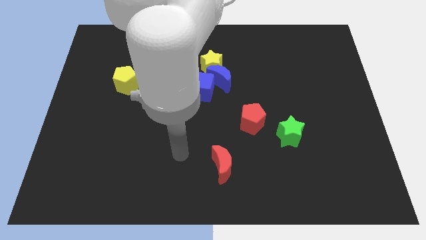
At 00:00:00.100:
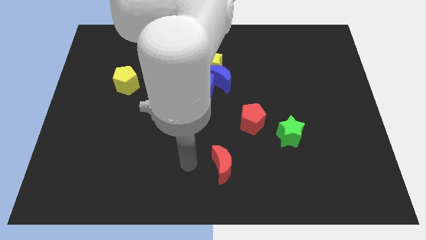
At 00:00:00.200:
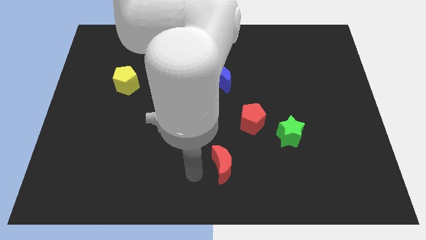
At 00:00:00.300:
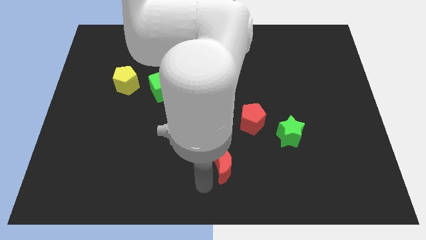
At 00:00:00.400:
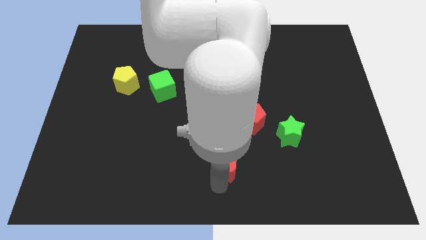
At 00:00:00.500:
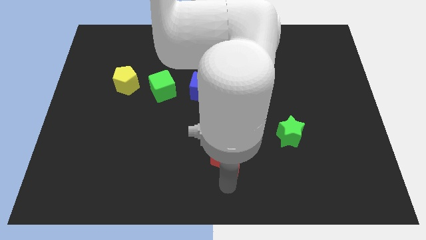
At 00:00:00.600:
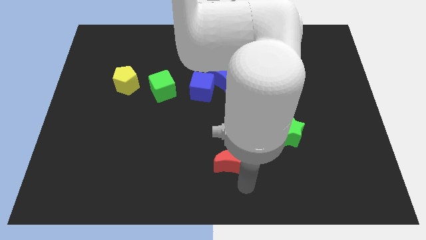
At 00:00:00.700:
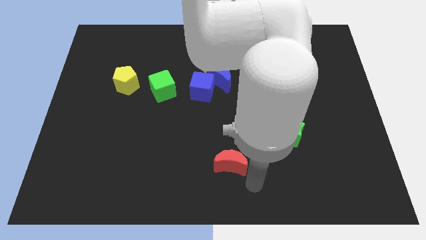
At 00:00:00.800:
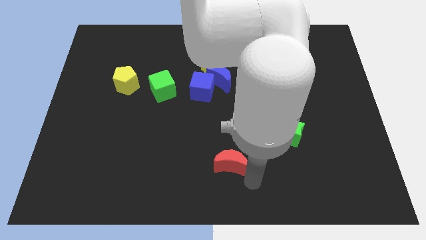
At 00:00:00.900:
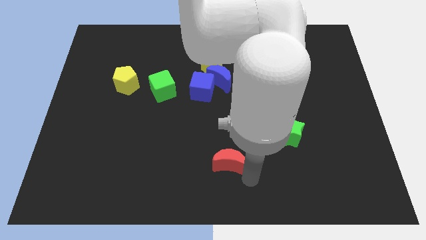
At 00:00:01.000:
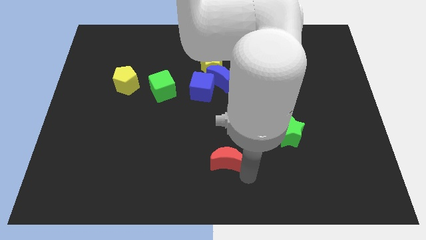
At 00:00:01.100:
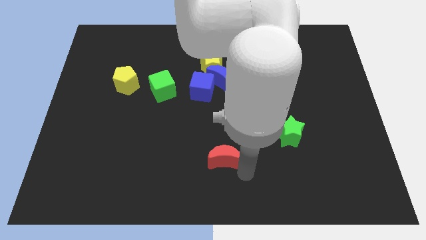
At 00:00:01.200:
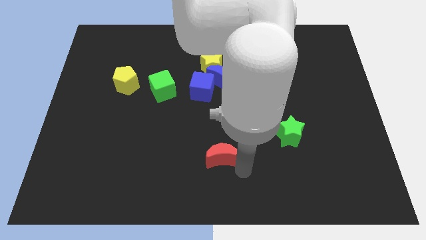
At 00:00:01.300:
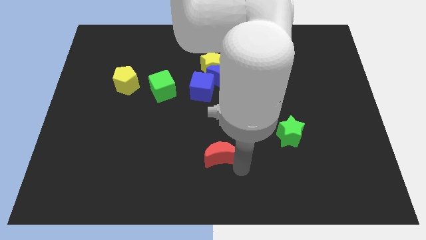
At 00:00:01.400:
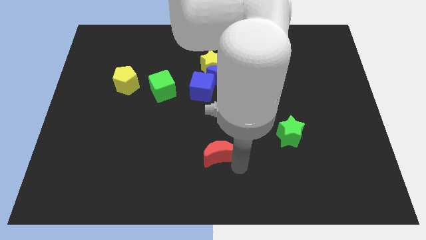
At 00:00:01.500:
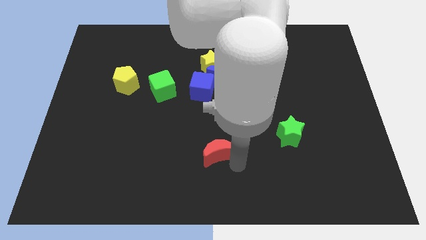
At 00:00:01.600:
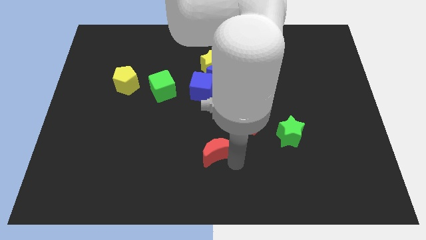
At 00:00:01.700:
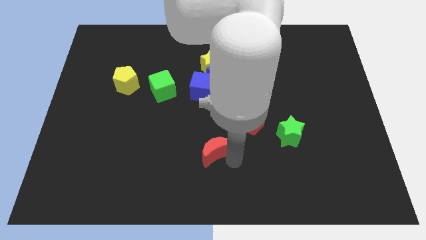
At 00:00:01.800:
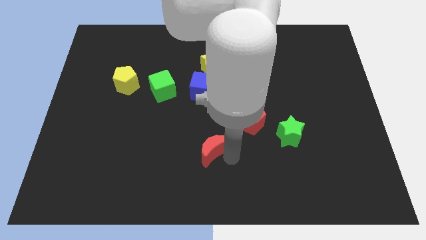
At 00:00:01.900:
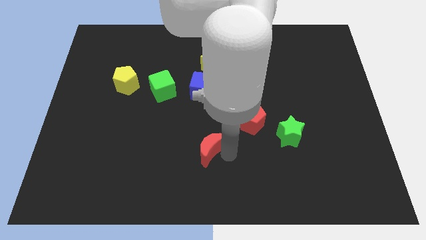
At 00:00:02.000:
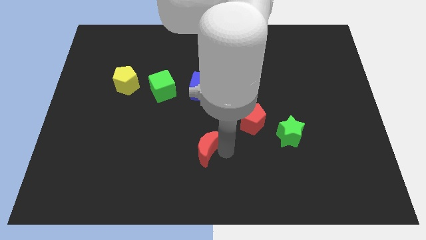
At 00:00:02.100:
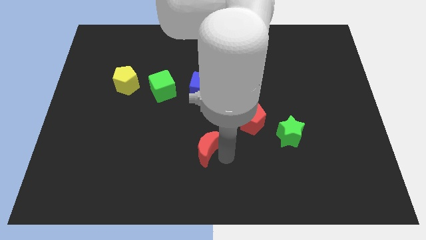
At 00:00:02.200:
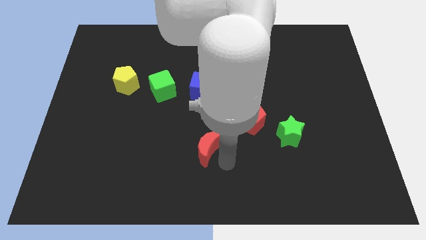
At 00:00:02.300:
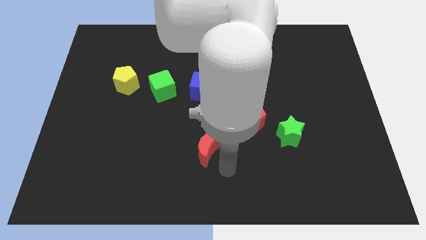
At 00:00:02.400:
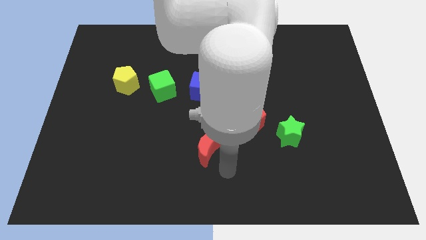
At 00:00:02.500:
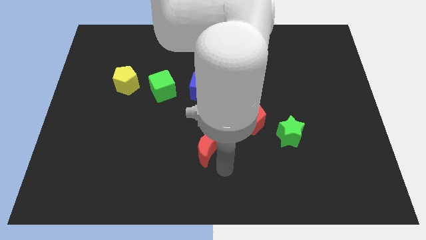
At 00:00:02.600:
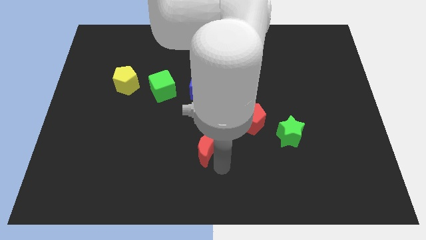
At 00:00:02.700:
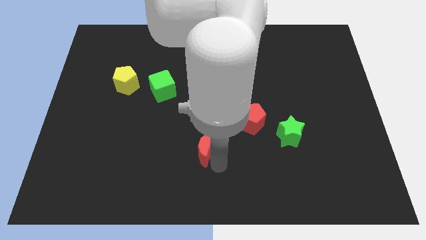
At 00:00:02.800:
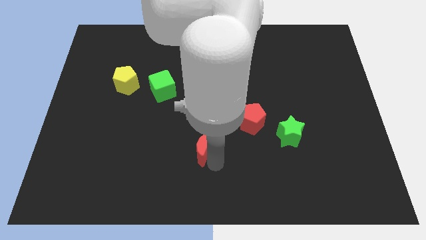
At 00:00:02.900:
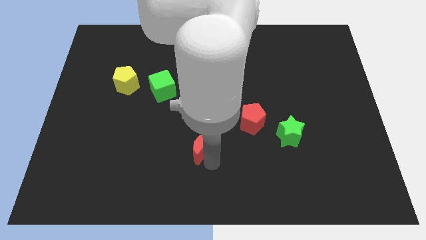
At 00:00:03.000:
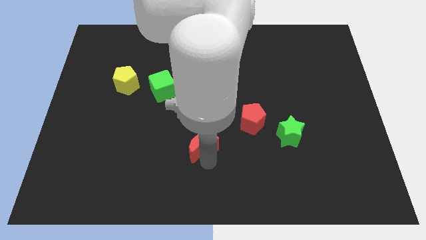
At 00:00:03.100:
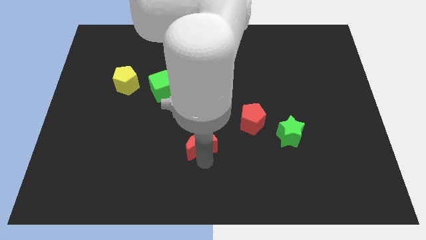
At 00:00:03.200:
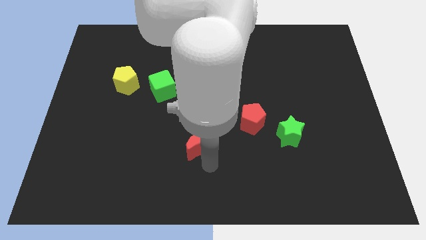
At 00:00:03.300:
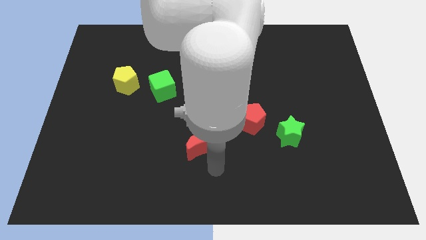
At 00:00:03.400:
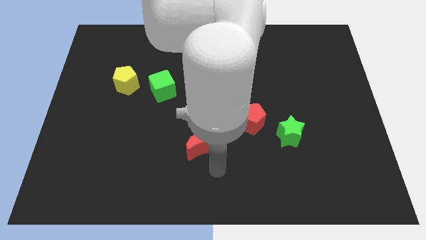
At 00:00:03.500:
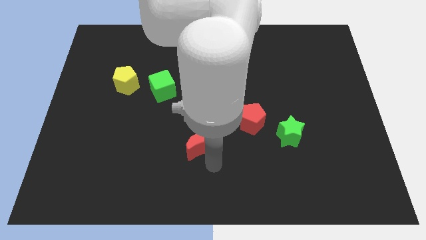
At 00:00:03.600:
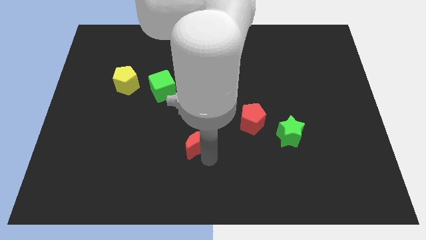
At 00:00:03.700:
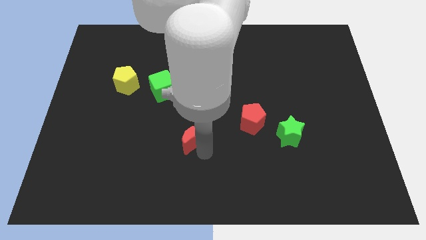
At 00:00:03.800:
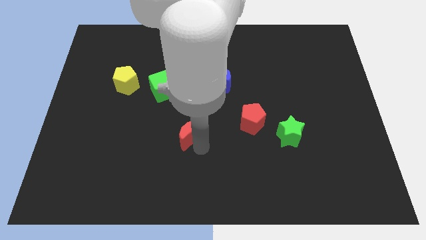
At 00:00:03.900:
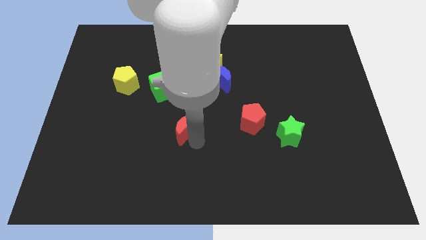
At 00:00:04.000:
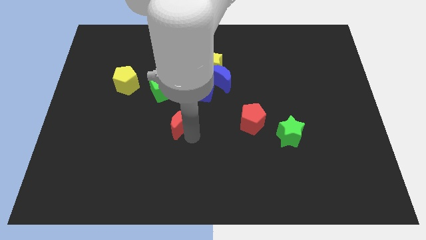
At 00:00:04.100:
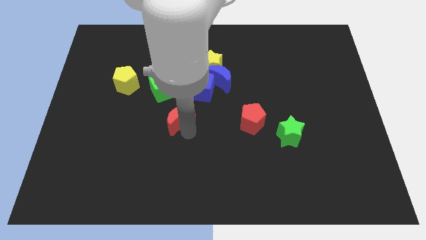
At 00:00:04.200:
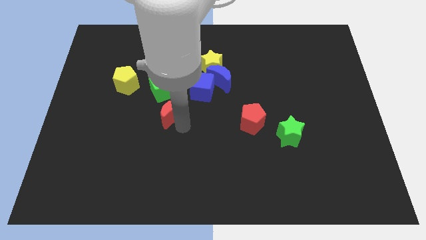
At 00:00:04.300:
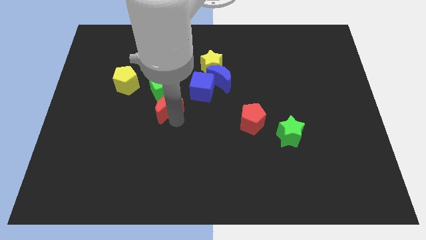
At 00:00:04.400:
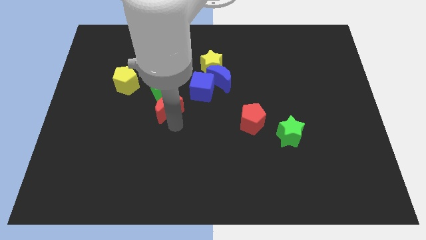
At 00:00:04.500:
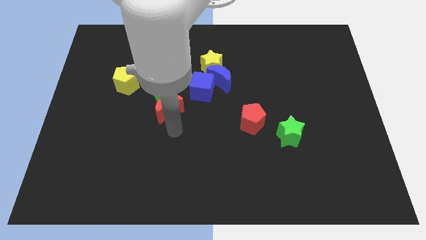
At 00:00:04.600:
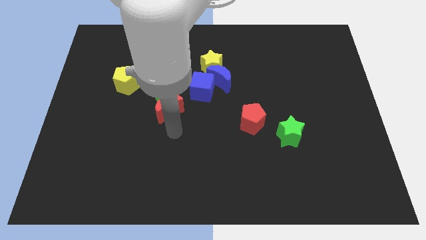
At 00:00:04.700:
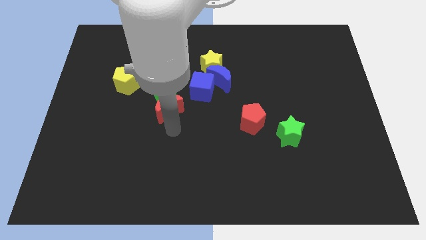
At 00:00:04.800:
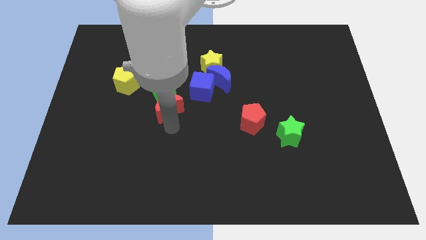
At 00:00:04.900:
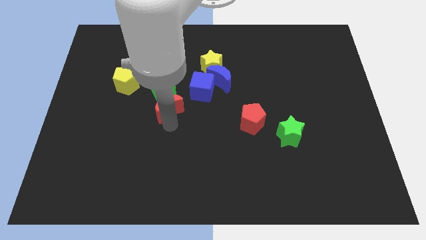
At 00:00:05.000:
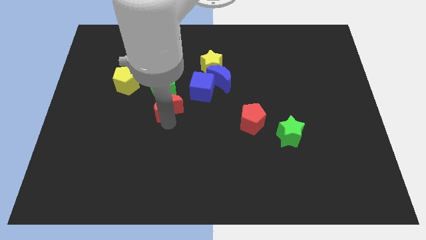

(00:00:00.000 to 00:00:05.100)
move the red moon next to the green cube

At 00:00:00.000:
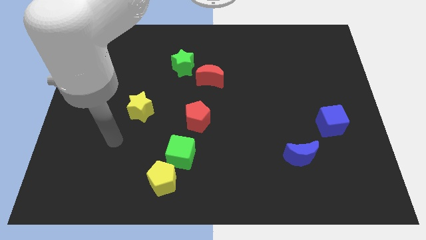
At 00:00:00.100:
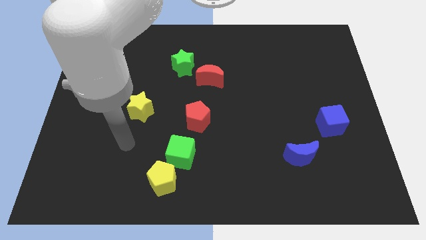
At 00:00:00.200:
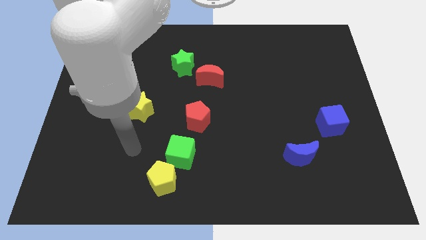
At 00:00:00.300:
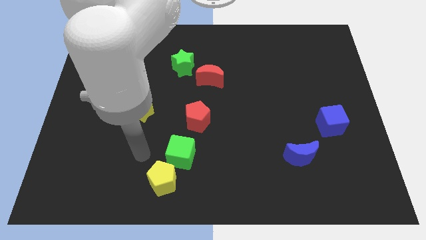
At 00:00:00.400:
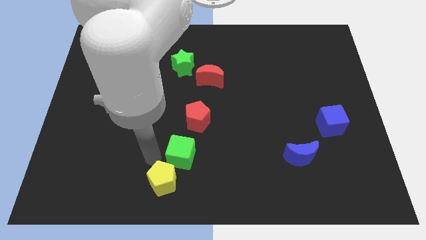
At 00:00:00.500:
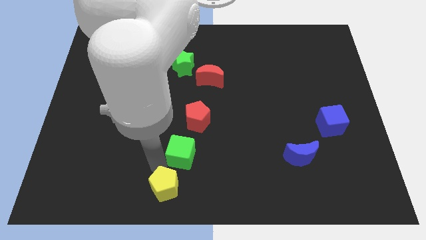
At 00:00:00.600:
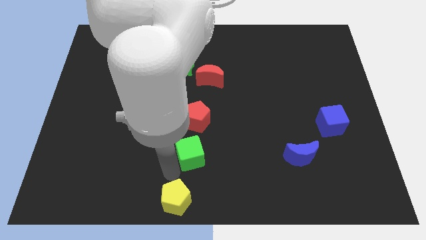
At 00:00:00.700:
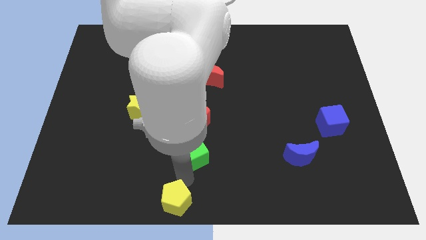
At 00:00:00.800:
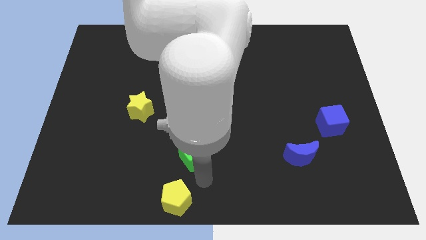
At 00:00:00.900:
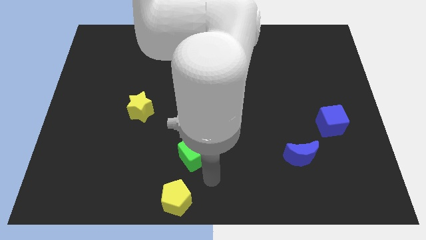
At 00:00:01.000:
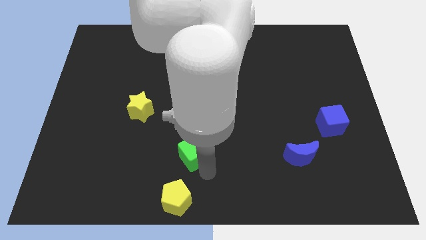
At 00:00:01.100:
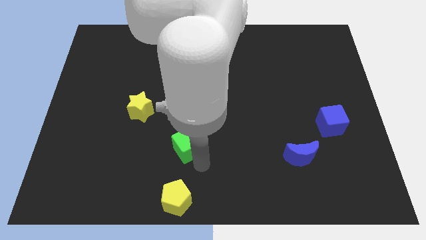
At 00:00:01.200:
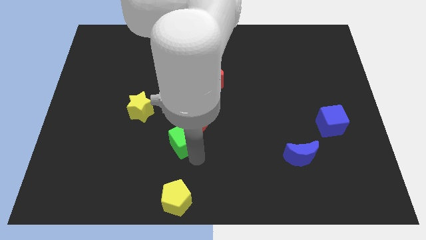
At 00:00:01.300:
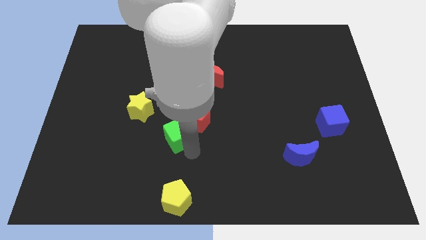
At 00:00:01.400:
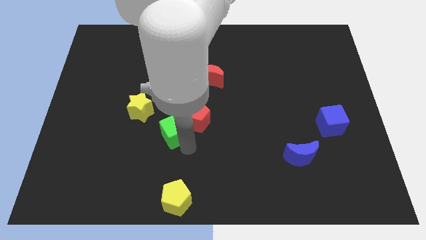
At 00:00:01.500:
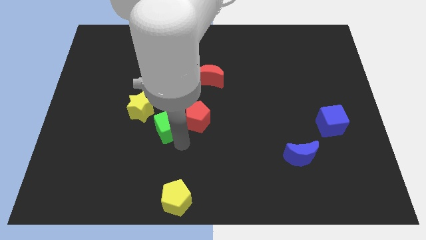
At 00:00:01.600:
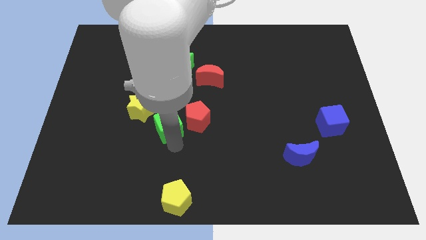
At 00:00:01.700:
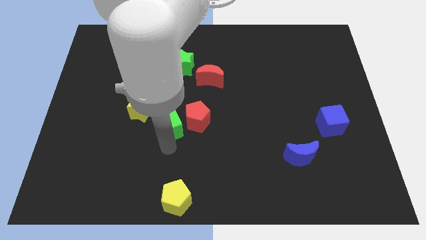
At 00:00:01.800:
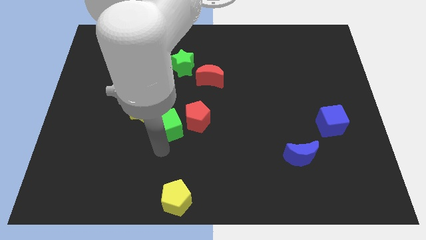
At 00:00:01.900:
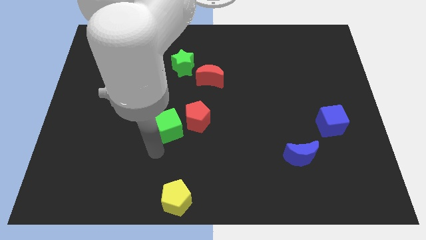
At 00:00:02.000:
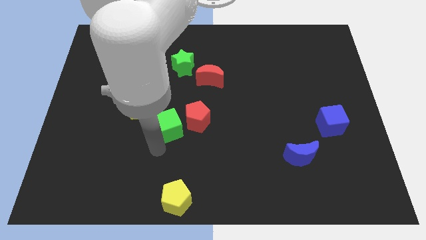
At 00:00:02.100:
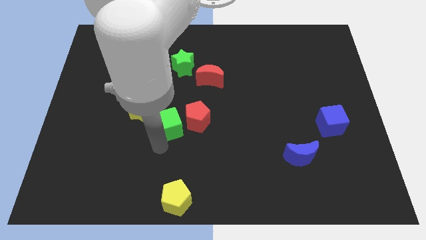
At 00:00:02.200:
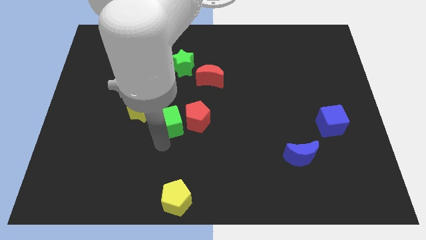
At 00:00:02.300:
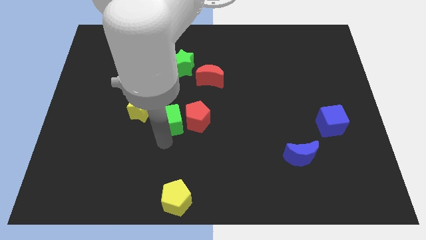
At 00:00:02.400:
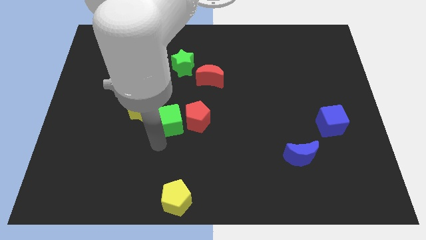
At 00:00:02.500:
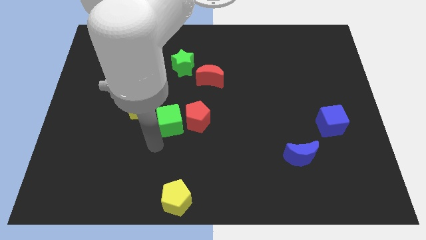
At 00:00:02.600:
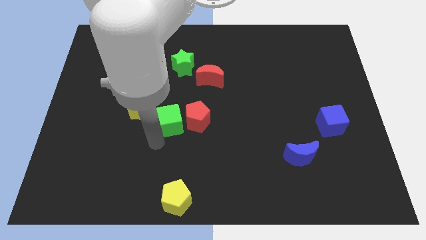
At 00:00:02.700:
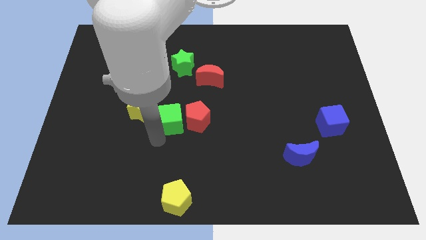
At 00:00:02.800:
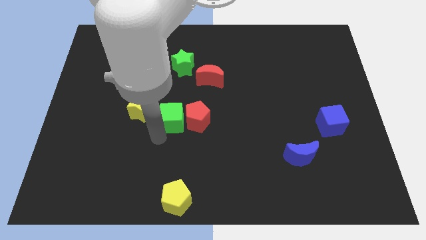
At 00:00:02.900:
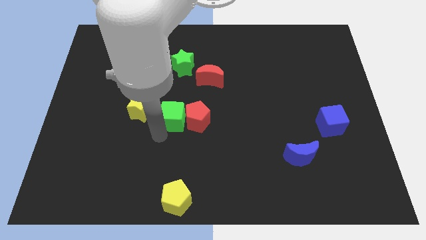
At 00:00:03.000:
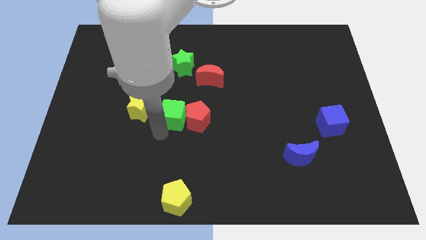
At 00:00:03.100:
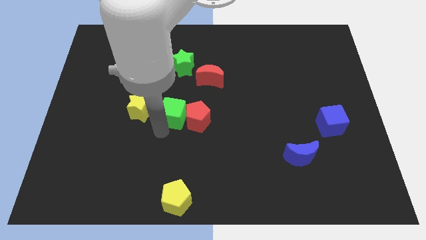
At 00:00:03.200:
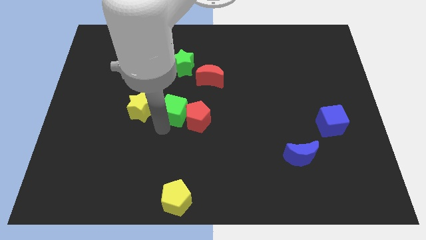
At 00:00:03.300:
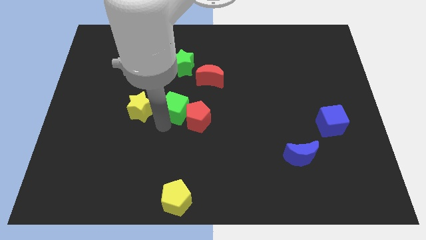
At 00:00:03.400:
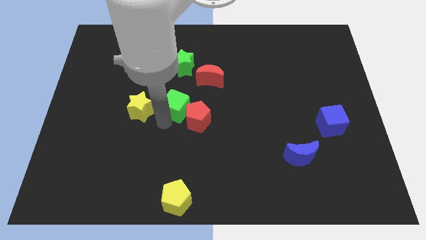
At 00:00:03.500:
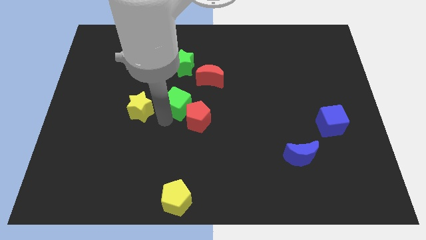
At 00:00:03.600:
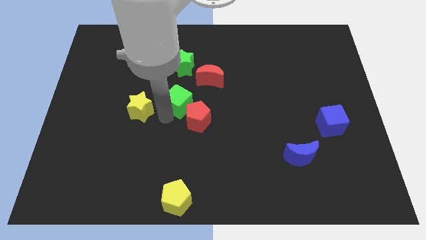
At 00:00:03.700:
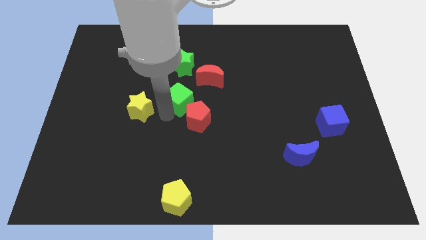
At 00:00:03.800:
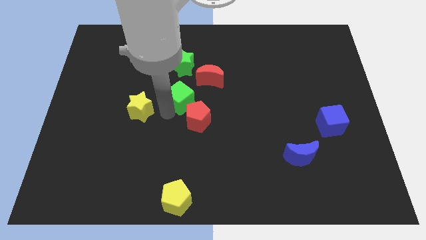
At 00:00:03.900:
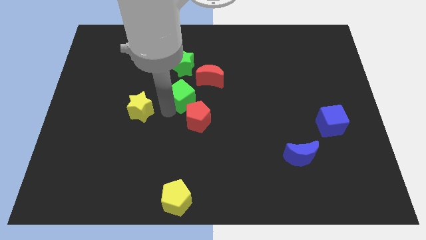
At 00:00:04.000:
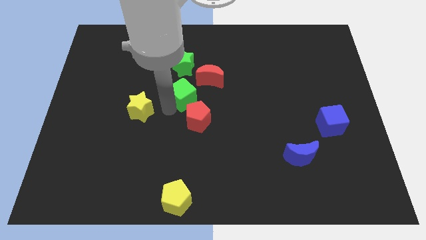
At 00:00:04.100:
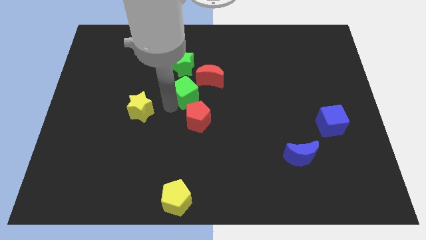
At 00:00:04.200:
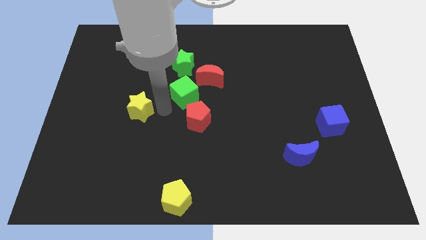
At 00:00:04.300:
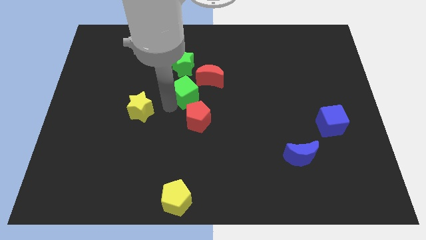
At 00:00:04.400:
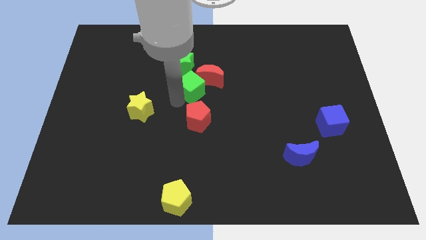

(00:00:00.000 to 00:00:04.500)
push the green cube to the red moon
